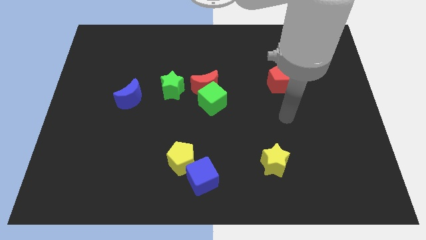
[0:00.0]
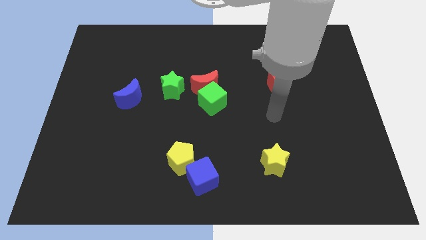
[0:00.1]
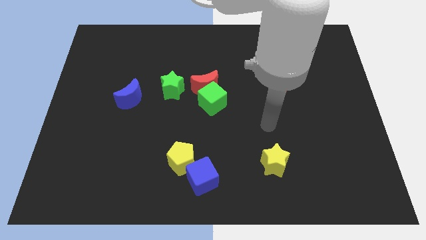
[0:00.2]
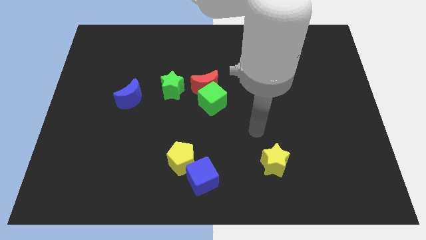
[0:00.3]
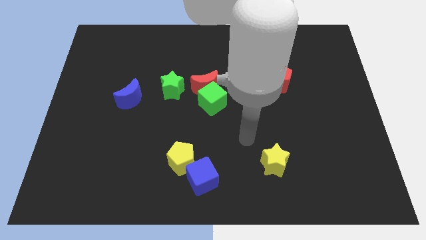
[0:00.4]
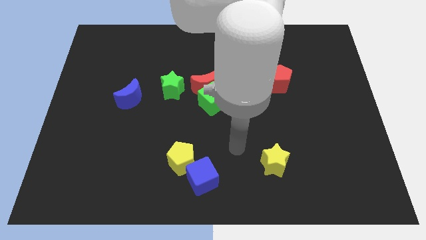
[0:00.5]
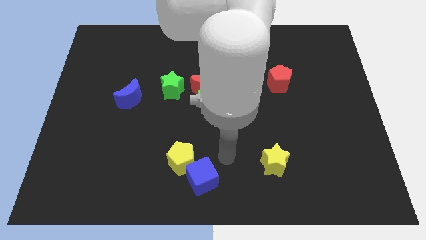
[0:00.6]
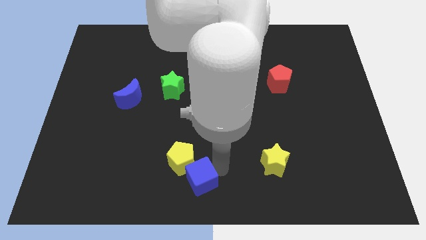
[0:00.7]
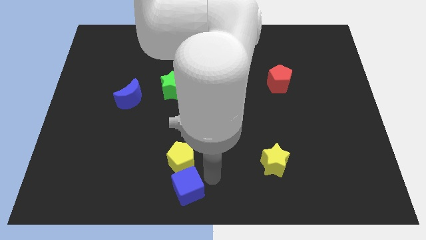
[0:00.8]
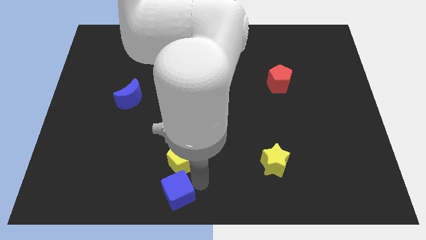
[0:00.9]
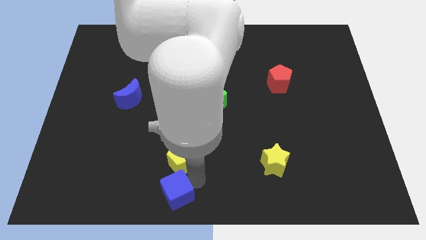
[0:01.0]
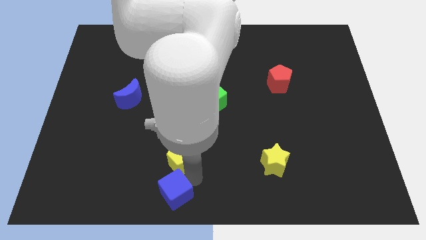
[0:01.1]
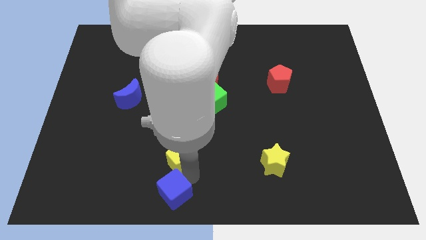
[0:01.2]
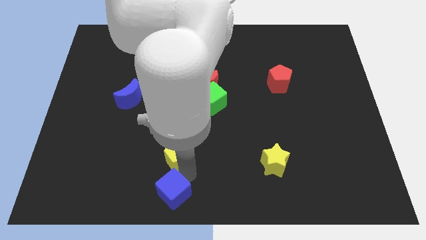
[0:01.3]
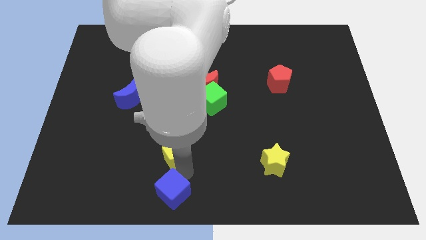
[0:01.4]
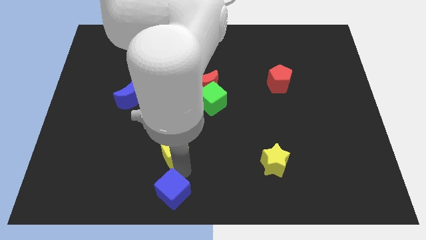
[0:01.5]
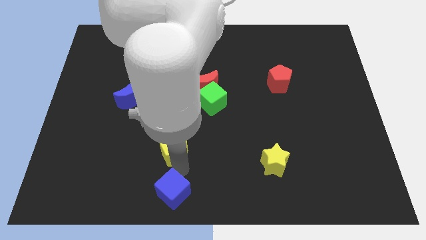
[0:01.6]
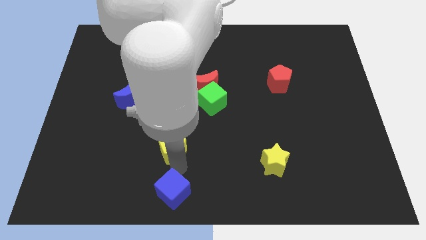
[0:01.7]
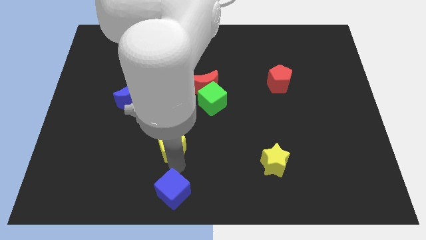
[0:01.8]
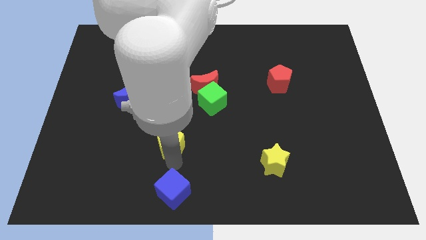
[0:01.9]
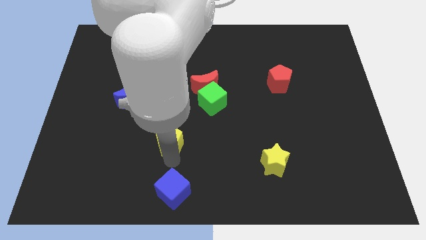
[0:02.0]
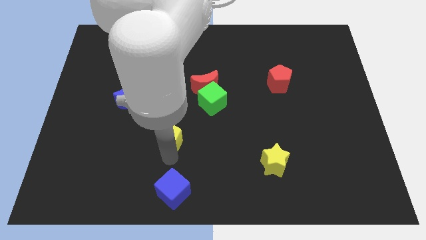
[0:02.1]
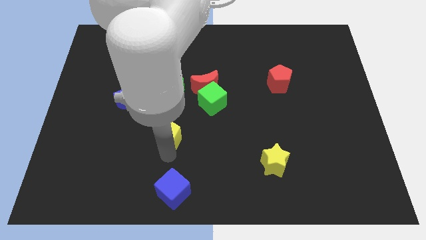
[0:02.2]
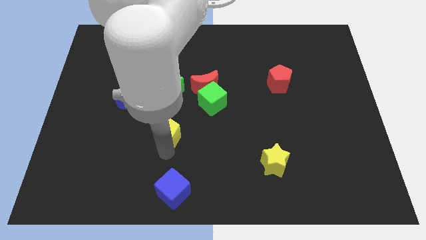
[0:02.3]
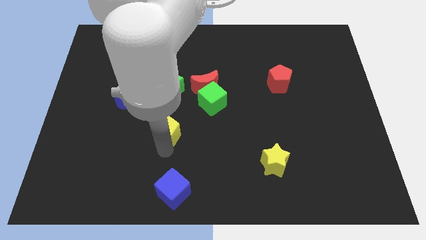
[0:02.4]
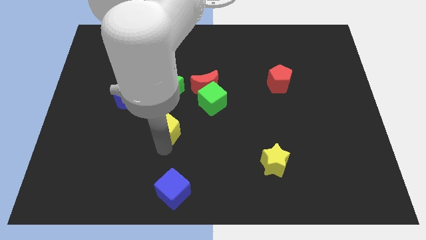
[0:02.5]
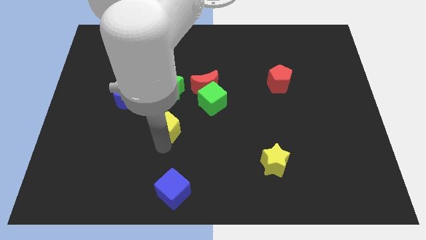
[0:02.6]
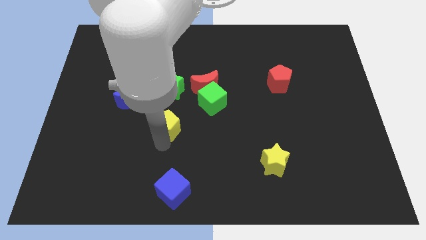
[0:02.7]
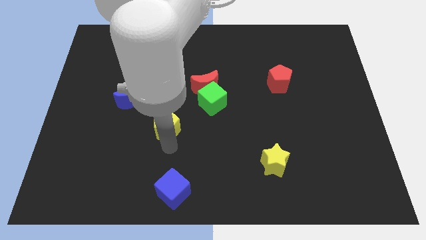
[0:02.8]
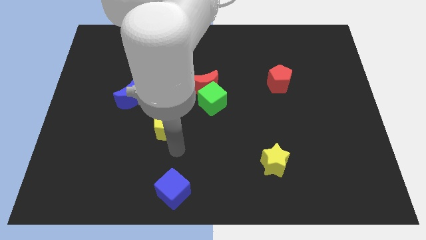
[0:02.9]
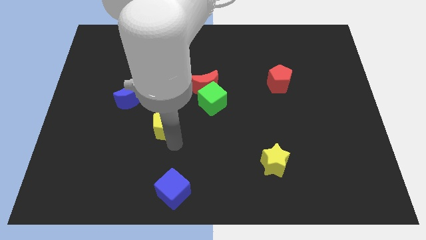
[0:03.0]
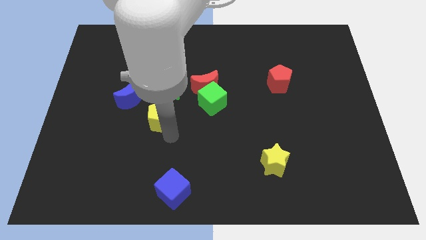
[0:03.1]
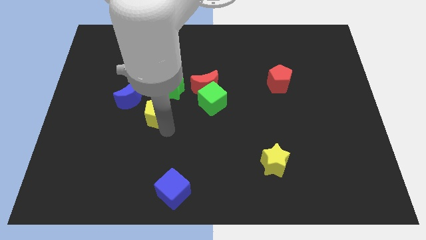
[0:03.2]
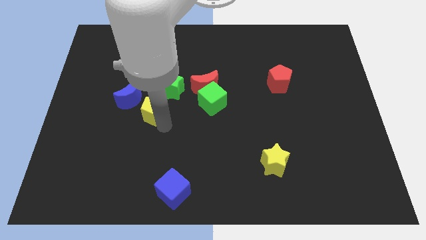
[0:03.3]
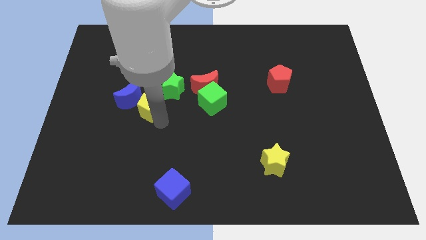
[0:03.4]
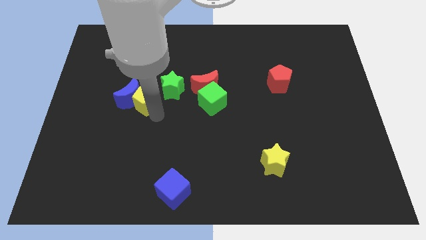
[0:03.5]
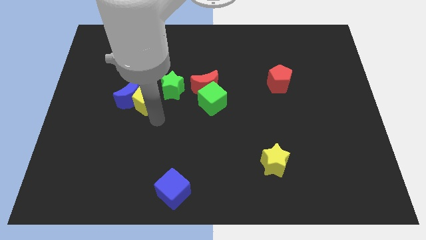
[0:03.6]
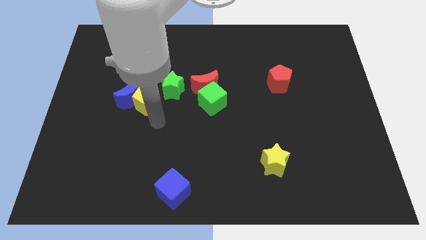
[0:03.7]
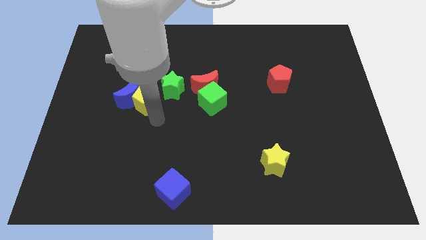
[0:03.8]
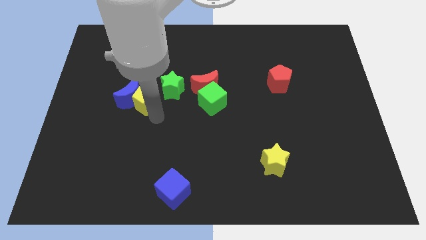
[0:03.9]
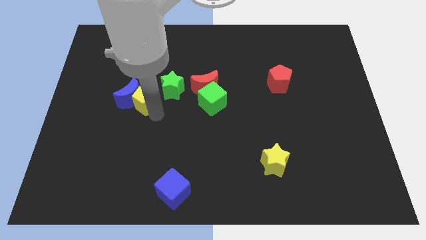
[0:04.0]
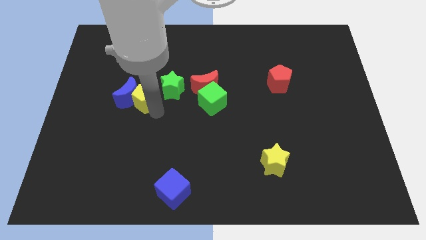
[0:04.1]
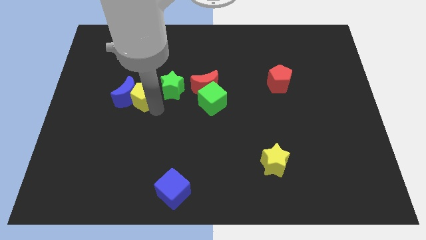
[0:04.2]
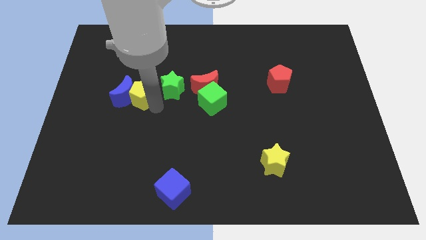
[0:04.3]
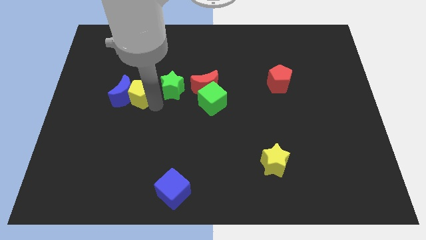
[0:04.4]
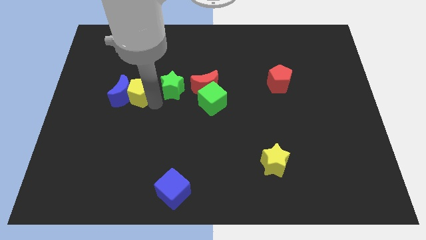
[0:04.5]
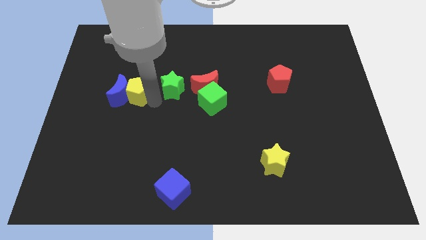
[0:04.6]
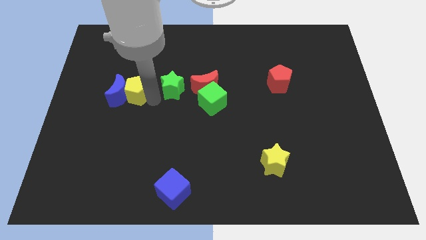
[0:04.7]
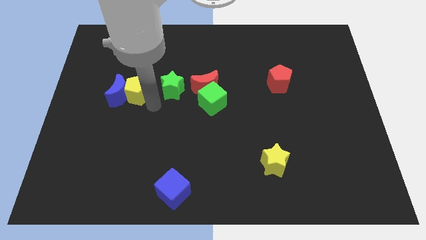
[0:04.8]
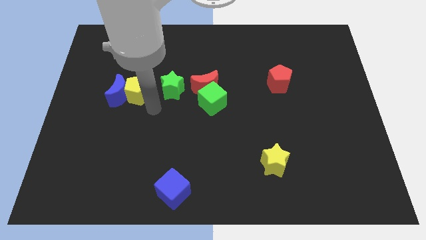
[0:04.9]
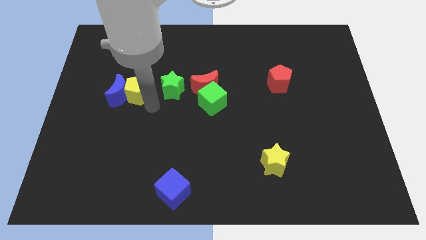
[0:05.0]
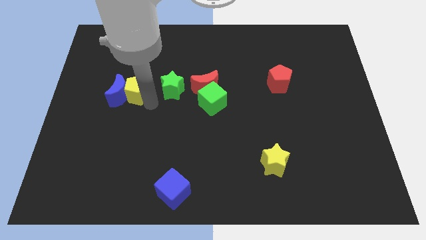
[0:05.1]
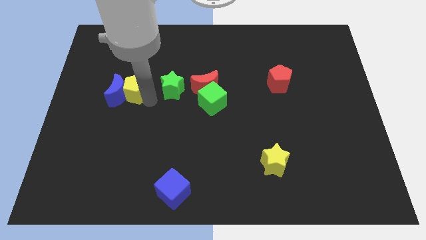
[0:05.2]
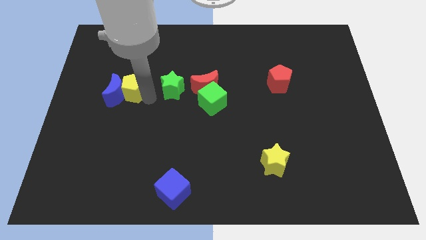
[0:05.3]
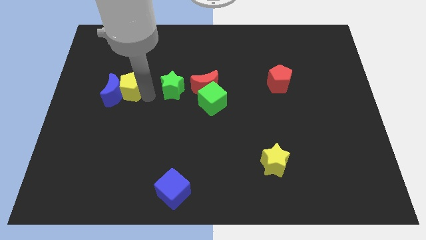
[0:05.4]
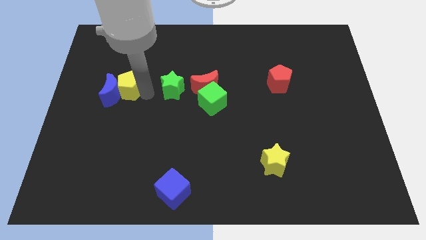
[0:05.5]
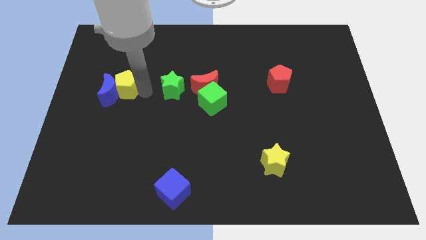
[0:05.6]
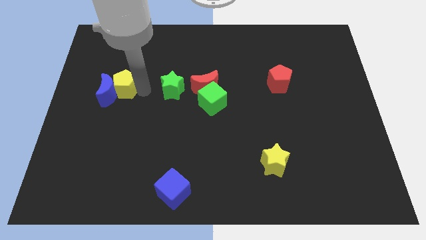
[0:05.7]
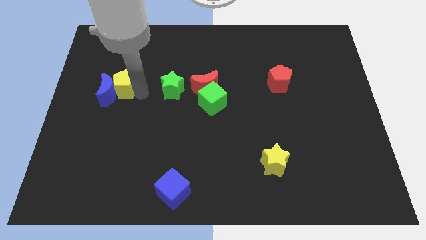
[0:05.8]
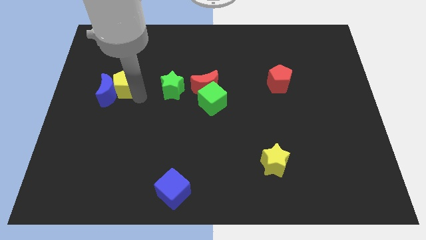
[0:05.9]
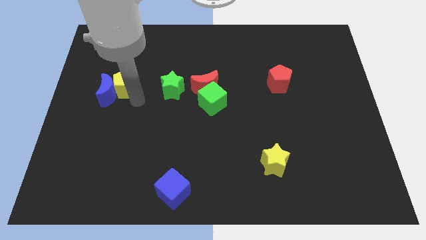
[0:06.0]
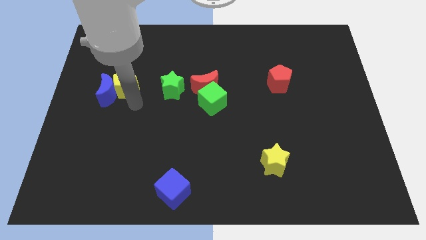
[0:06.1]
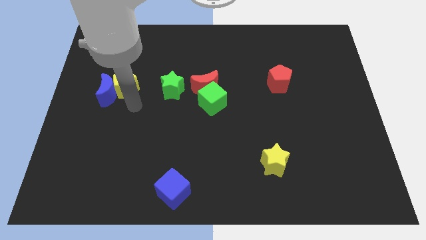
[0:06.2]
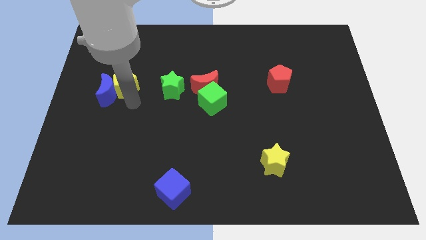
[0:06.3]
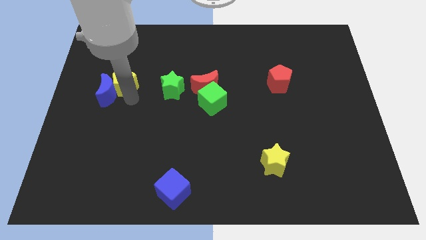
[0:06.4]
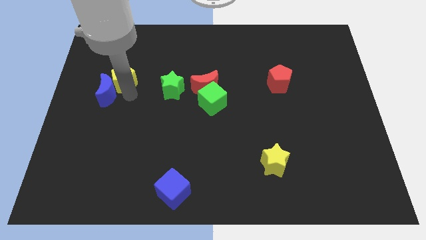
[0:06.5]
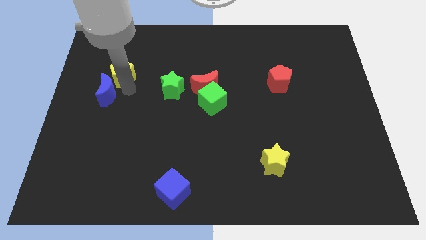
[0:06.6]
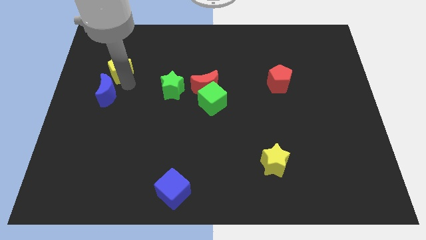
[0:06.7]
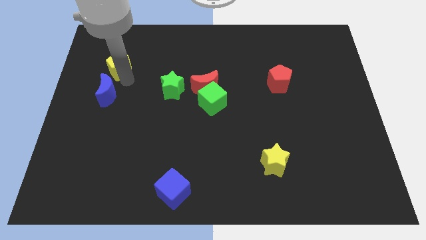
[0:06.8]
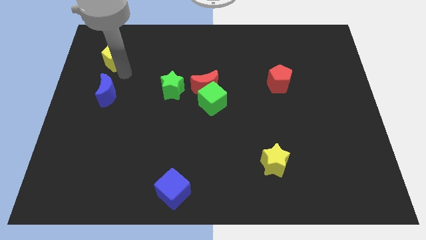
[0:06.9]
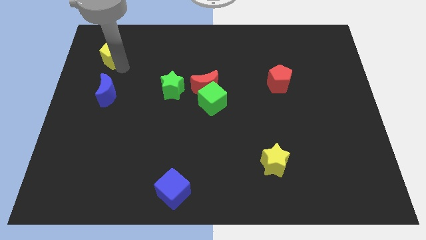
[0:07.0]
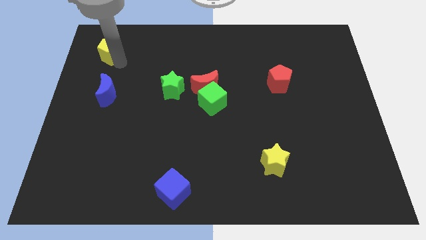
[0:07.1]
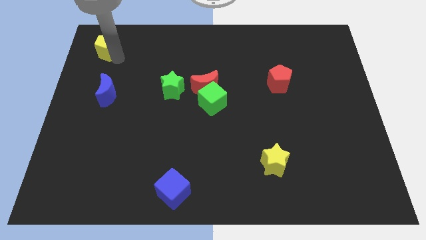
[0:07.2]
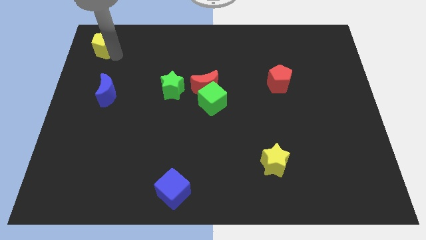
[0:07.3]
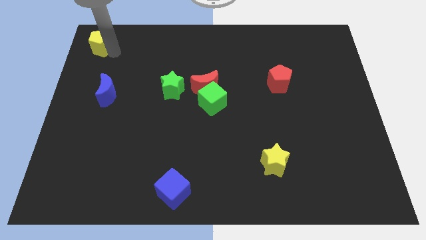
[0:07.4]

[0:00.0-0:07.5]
put the yellow pentagon to the top left
